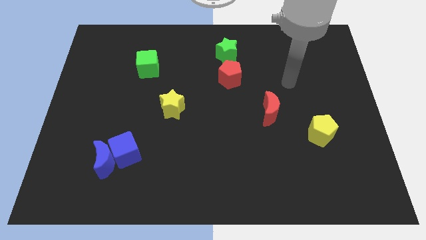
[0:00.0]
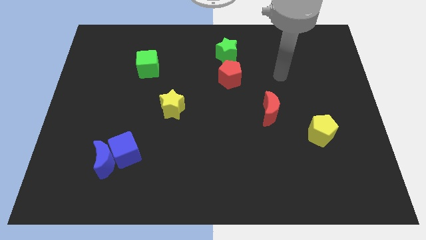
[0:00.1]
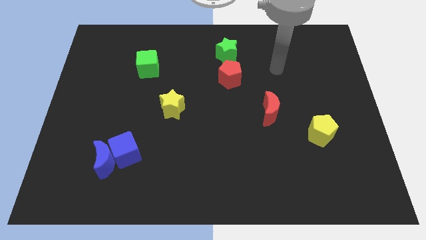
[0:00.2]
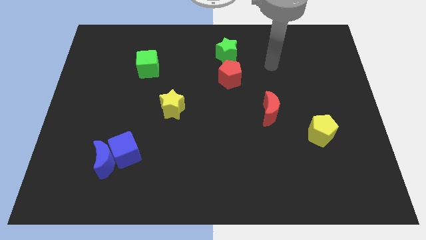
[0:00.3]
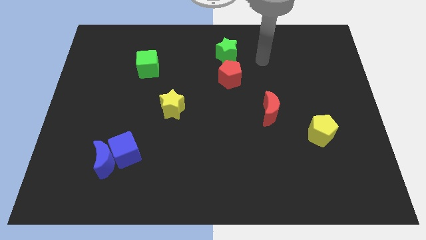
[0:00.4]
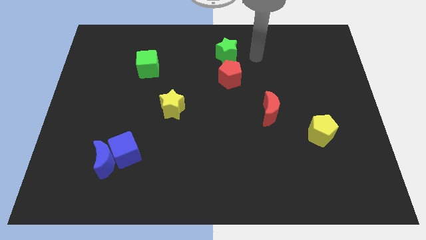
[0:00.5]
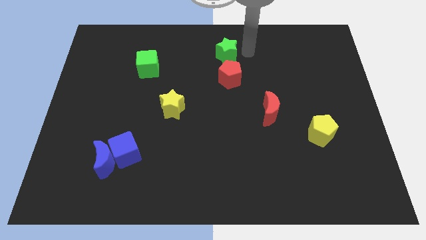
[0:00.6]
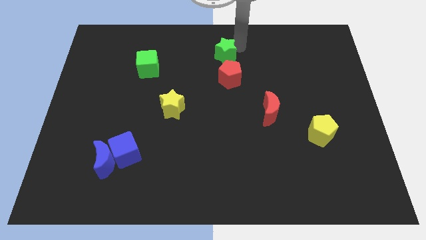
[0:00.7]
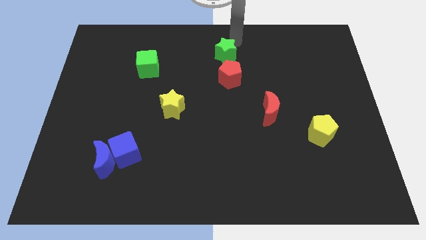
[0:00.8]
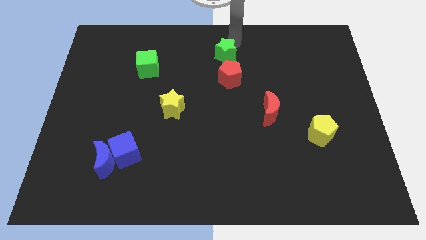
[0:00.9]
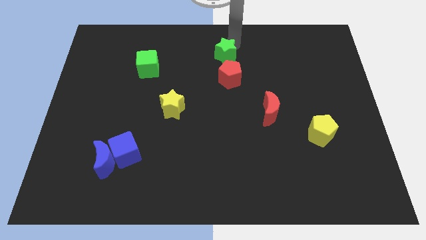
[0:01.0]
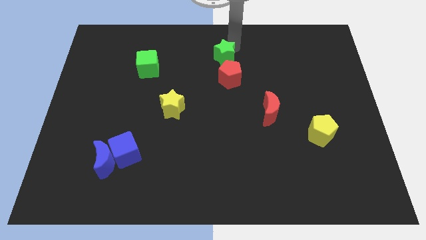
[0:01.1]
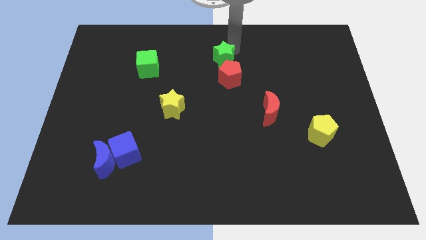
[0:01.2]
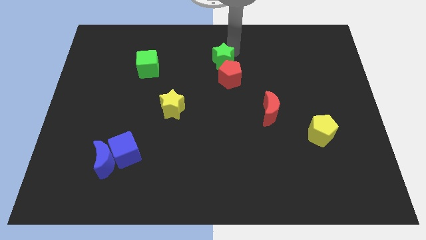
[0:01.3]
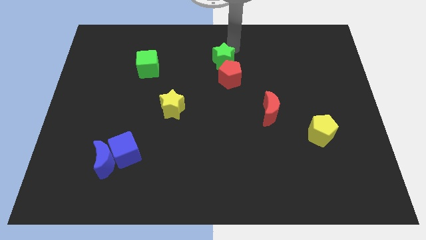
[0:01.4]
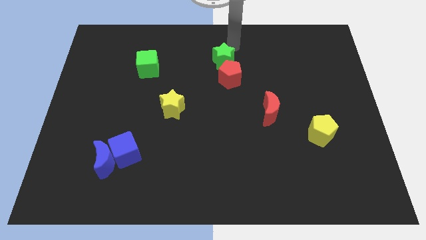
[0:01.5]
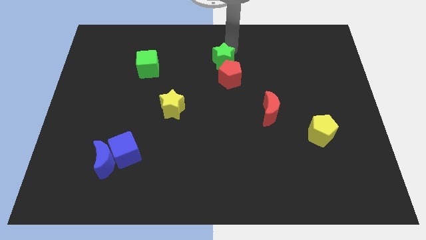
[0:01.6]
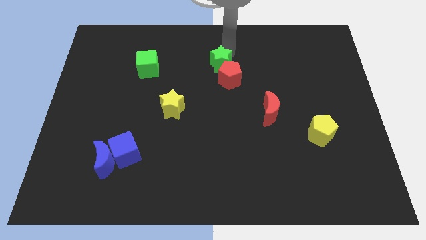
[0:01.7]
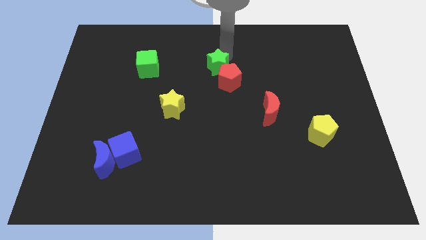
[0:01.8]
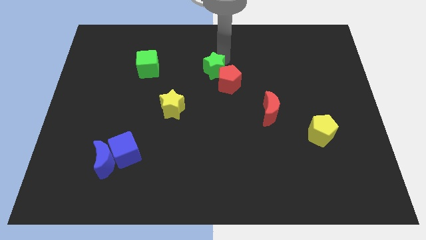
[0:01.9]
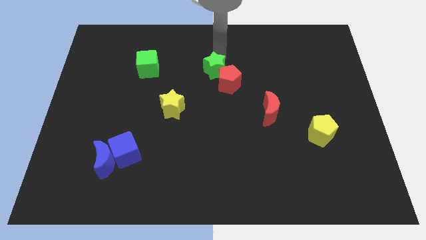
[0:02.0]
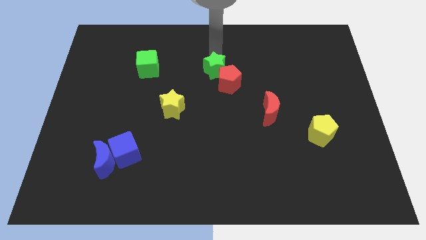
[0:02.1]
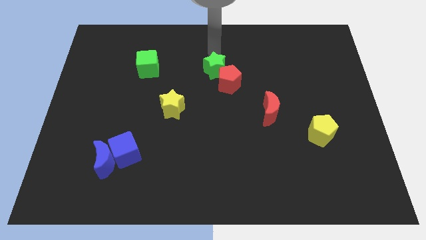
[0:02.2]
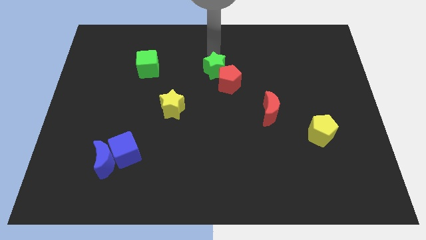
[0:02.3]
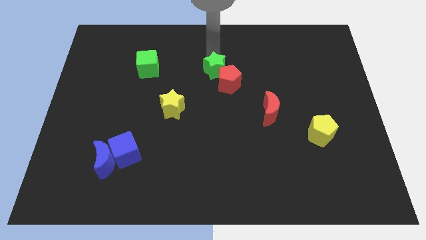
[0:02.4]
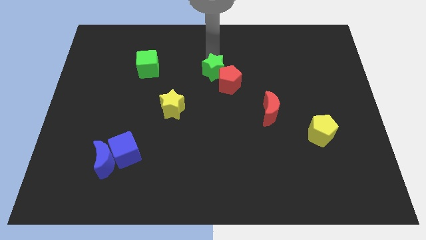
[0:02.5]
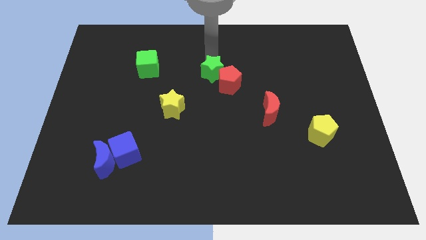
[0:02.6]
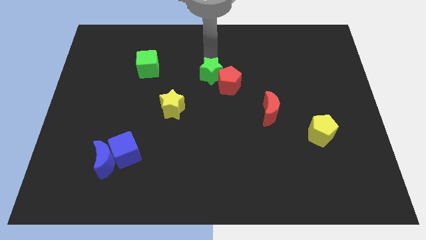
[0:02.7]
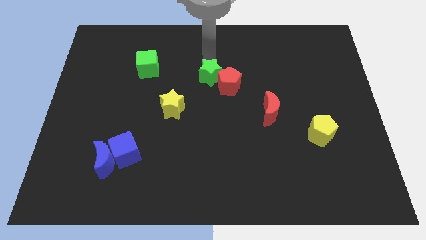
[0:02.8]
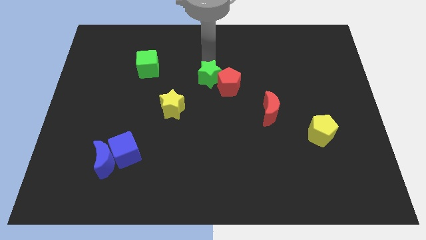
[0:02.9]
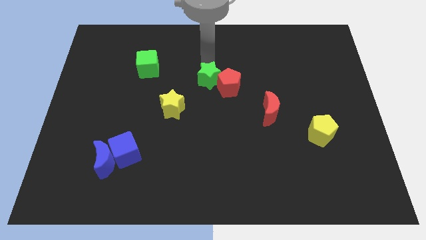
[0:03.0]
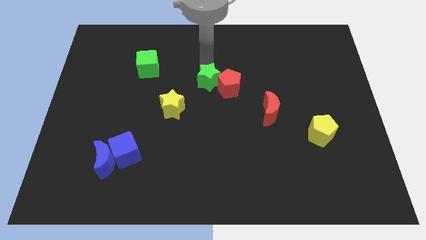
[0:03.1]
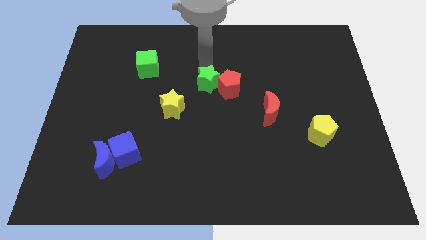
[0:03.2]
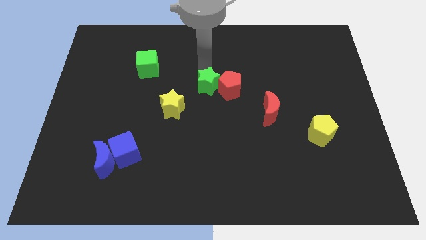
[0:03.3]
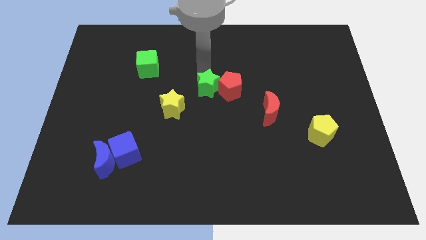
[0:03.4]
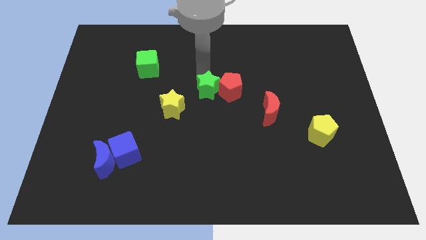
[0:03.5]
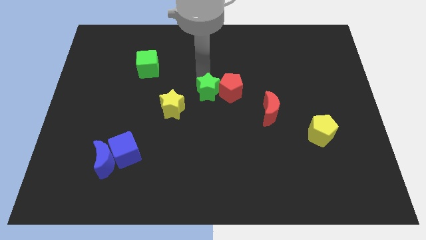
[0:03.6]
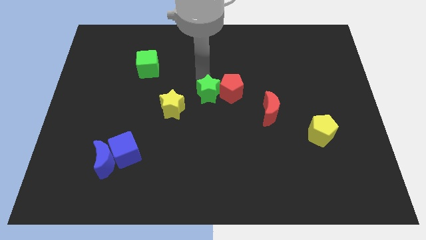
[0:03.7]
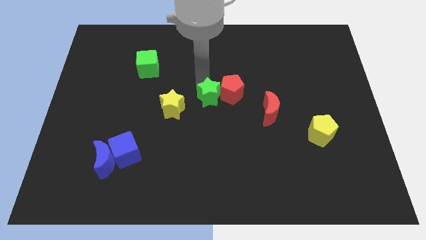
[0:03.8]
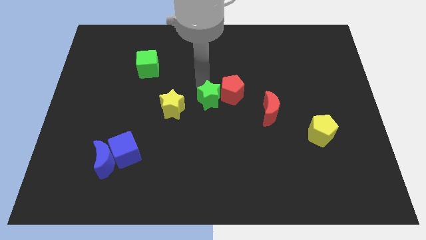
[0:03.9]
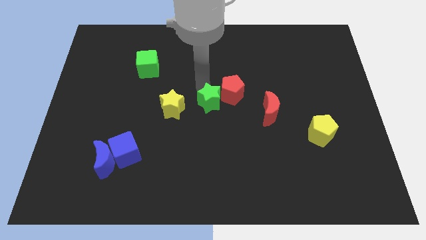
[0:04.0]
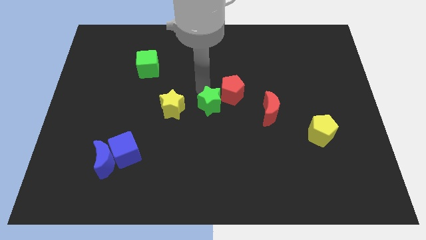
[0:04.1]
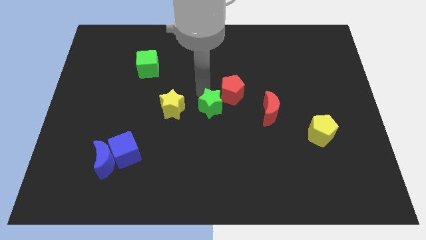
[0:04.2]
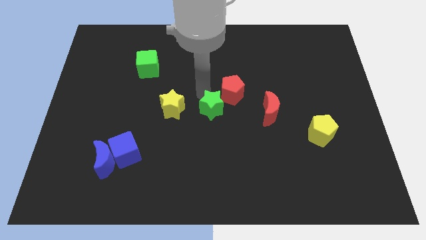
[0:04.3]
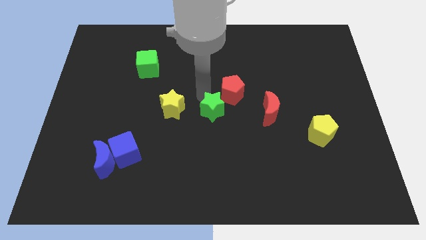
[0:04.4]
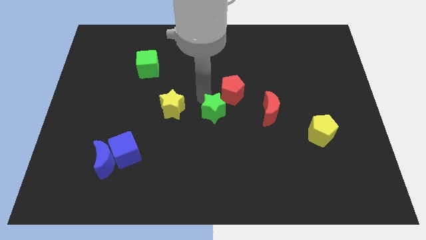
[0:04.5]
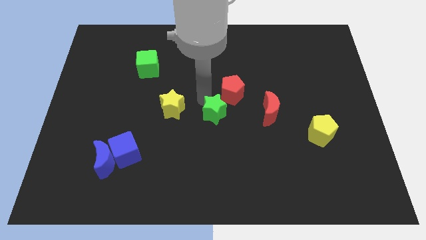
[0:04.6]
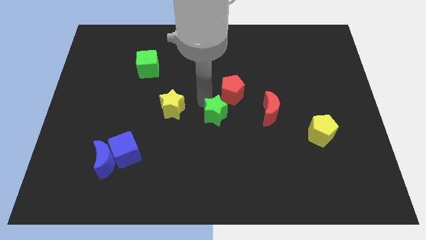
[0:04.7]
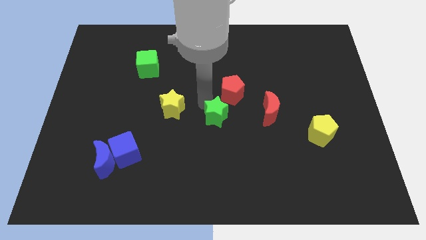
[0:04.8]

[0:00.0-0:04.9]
move the green star down

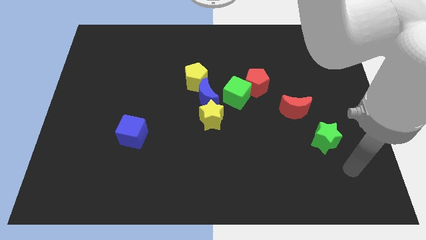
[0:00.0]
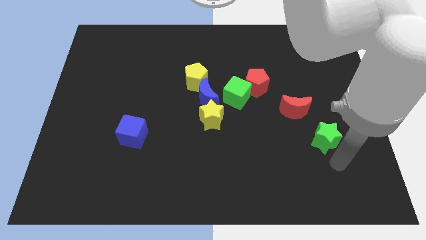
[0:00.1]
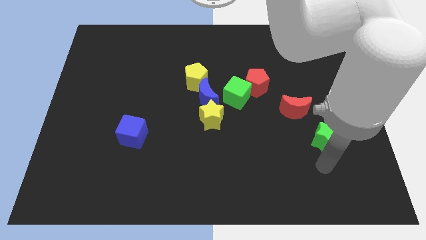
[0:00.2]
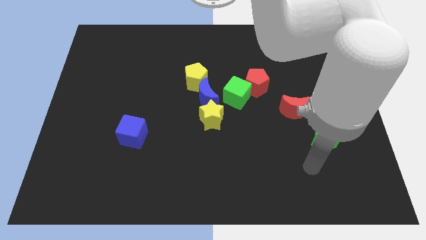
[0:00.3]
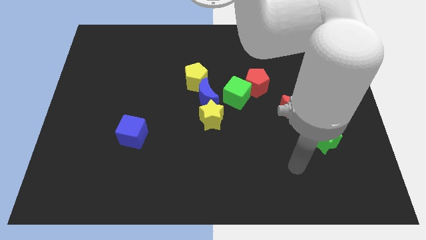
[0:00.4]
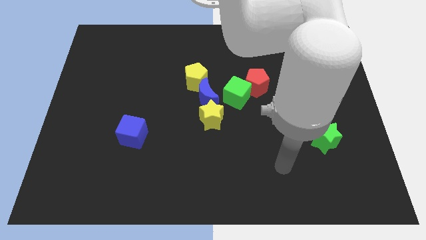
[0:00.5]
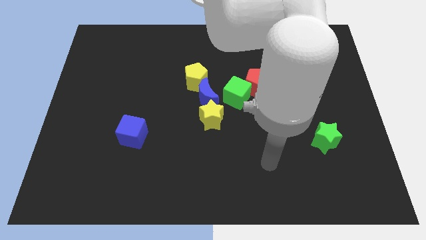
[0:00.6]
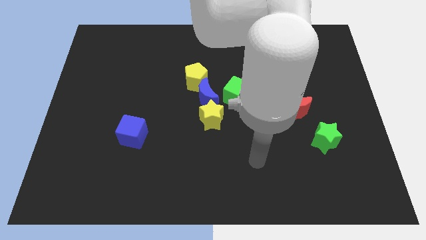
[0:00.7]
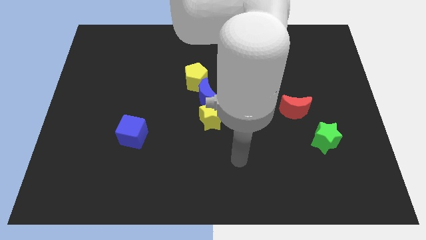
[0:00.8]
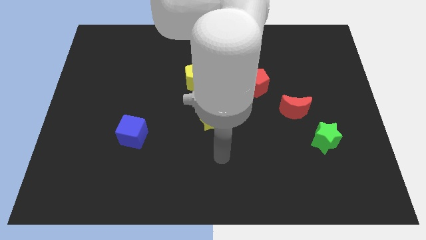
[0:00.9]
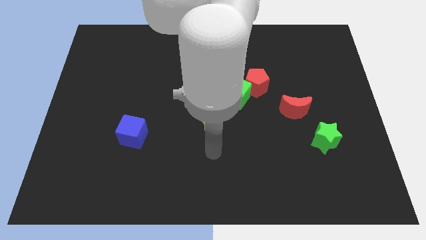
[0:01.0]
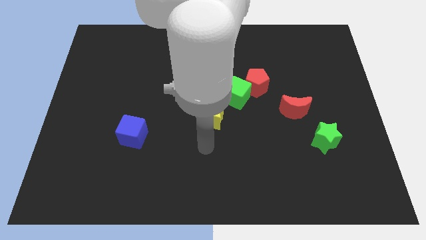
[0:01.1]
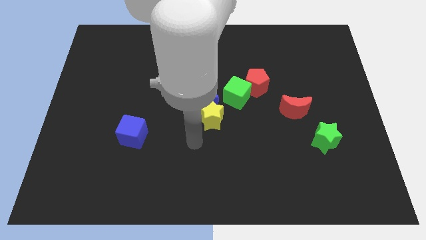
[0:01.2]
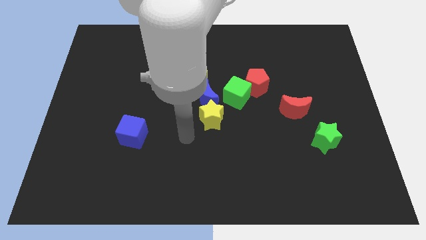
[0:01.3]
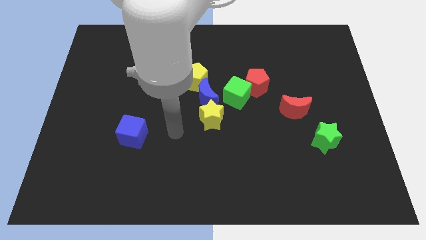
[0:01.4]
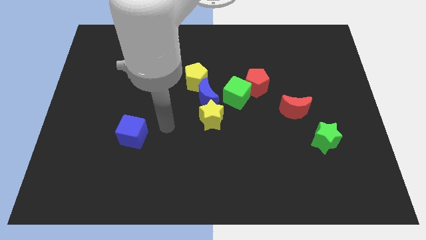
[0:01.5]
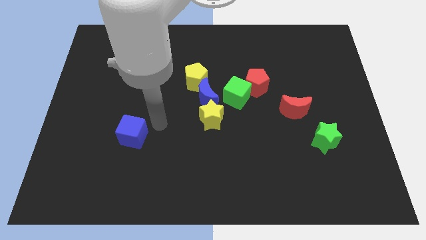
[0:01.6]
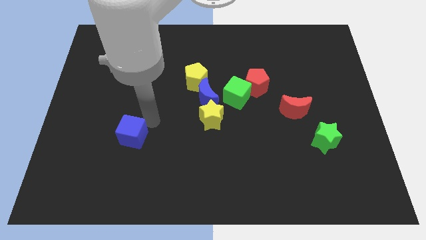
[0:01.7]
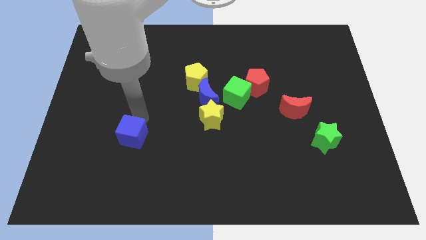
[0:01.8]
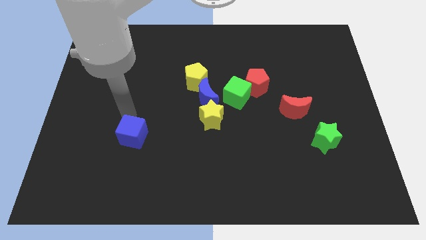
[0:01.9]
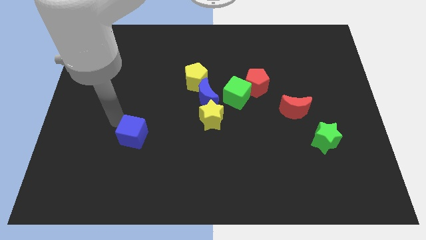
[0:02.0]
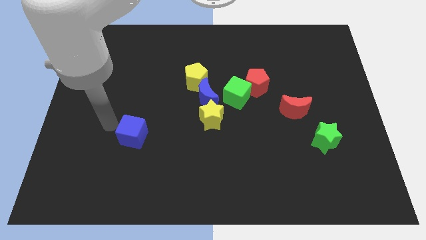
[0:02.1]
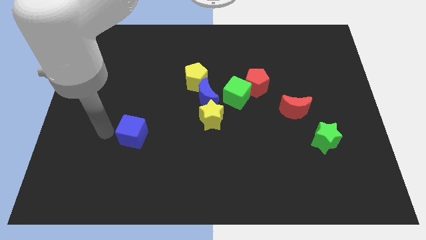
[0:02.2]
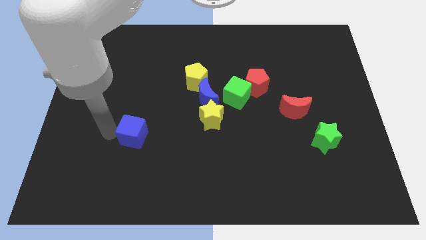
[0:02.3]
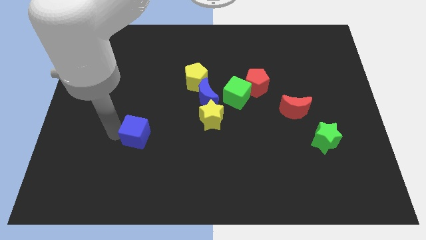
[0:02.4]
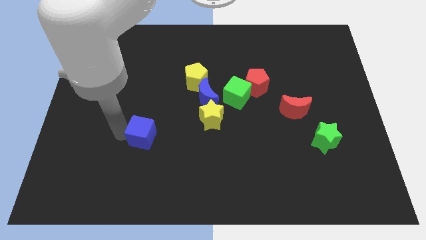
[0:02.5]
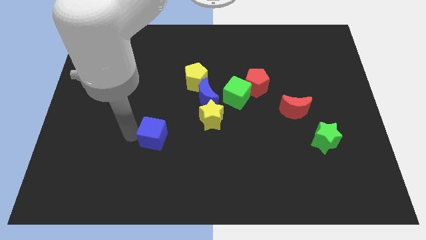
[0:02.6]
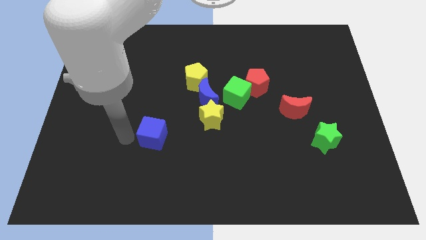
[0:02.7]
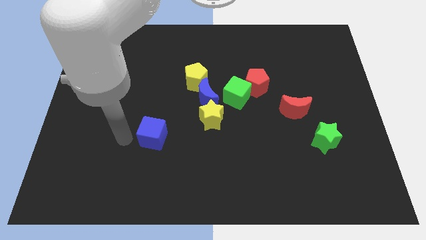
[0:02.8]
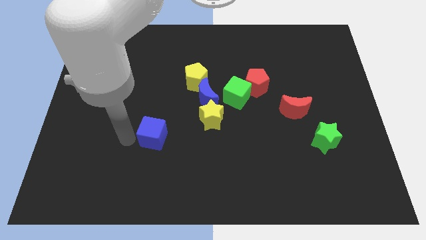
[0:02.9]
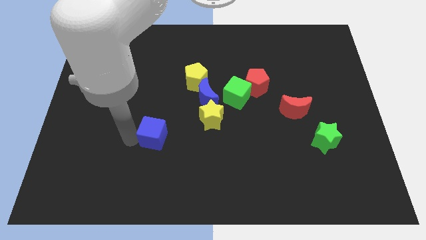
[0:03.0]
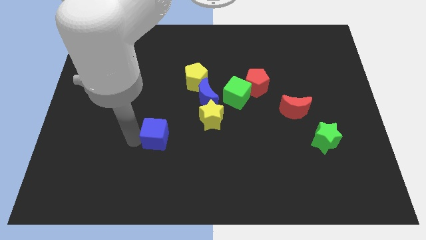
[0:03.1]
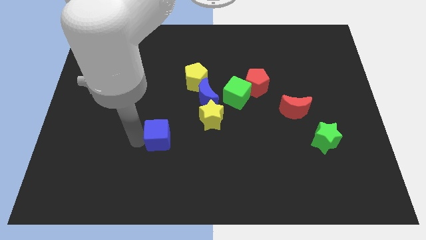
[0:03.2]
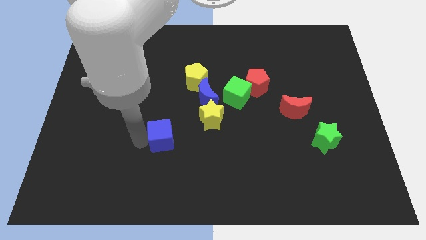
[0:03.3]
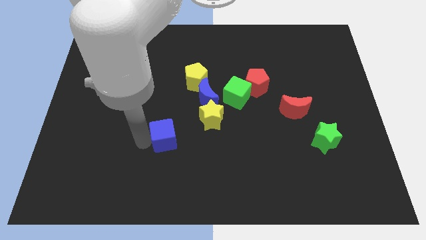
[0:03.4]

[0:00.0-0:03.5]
push the blue cube to the right somewhat
